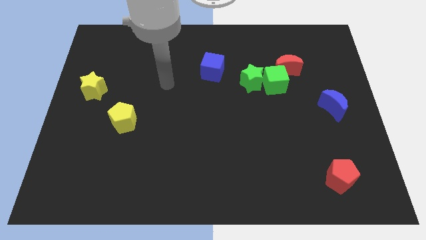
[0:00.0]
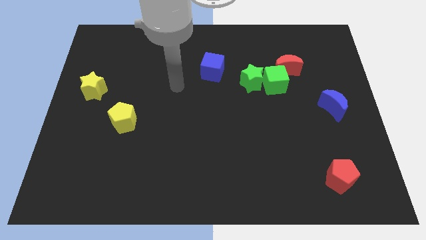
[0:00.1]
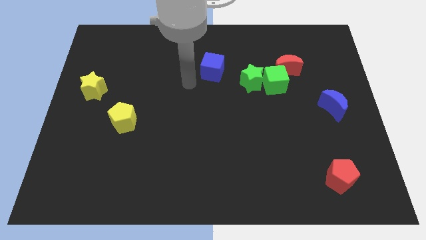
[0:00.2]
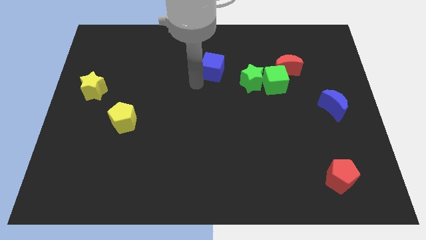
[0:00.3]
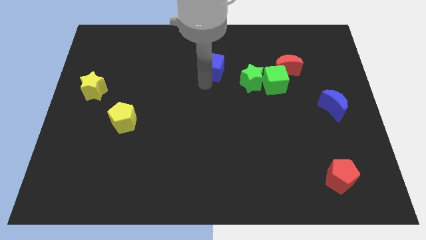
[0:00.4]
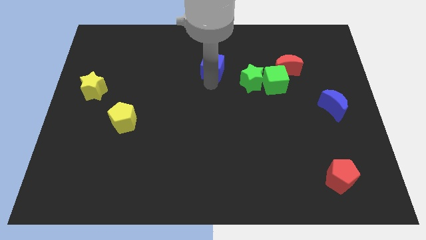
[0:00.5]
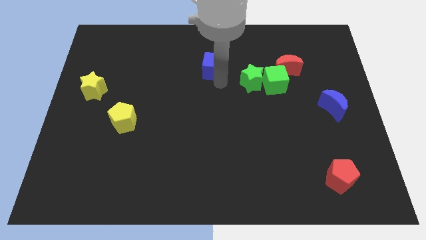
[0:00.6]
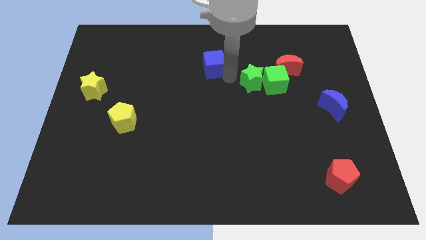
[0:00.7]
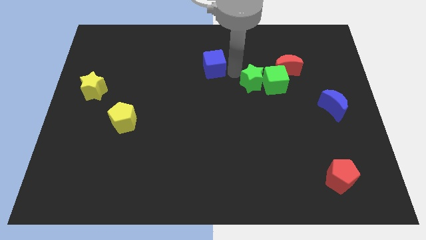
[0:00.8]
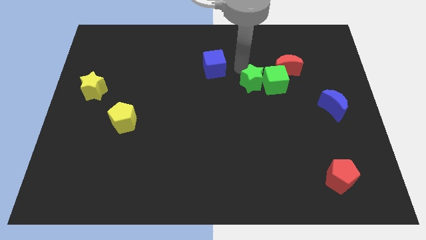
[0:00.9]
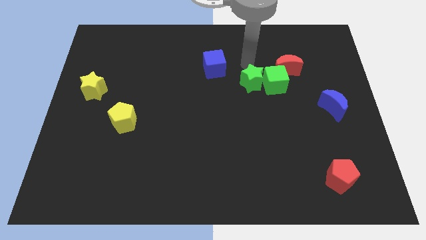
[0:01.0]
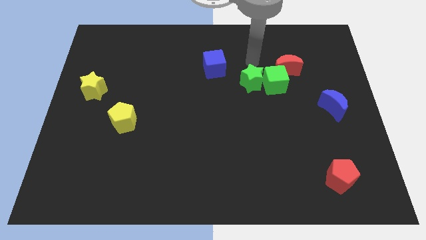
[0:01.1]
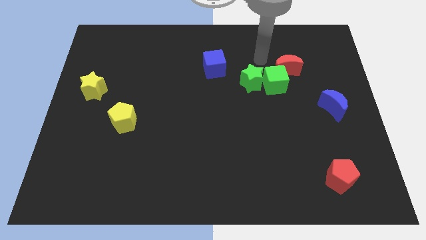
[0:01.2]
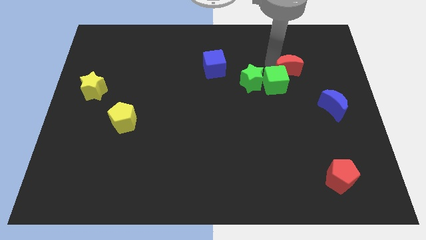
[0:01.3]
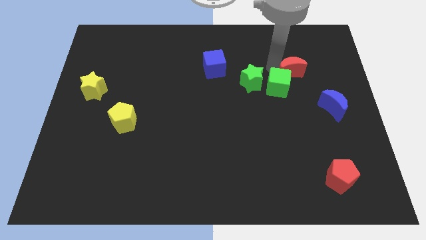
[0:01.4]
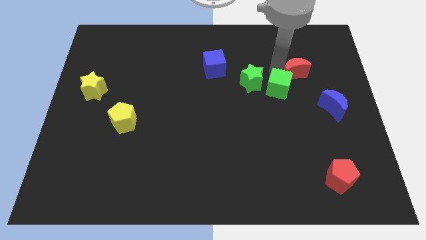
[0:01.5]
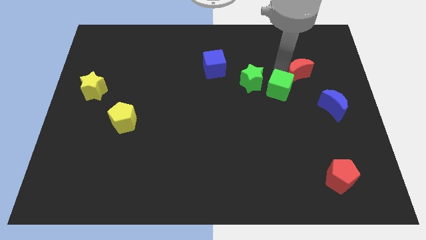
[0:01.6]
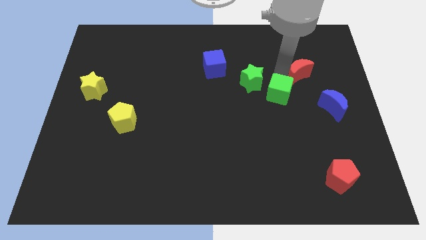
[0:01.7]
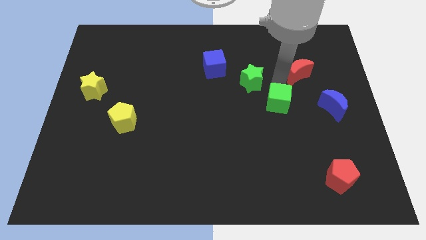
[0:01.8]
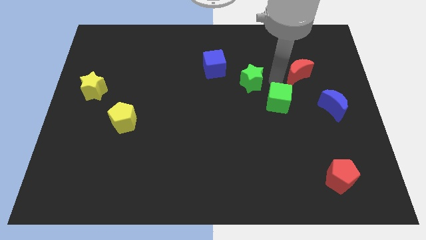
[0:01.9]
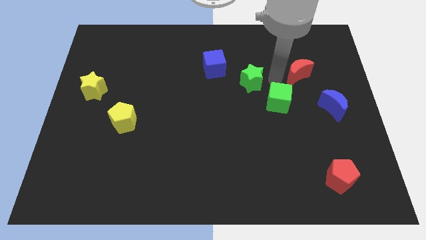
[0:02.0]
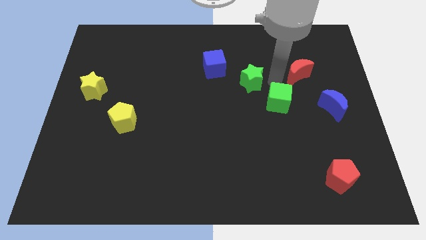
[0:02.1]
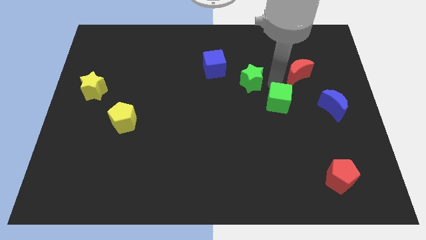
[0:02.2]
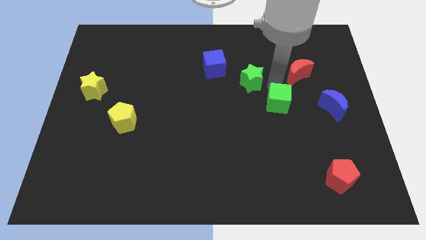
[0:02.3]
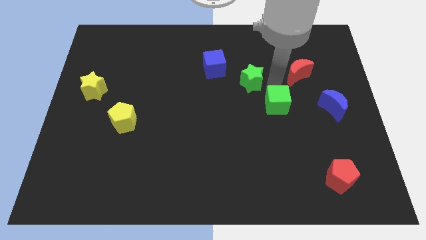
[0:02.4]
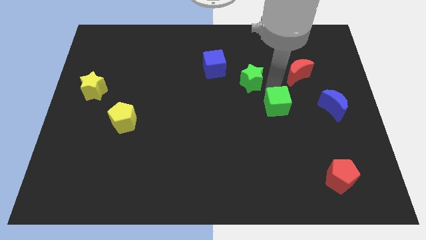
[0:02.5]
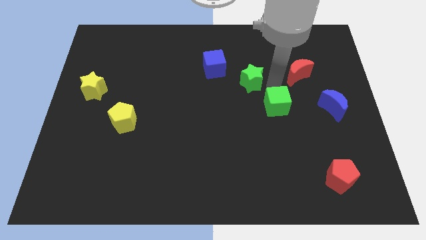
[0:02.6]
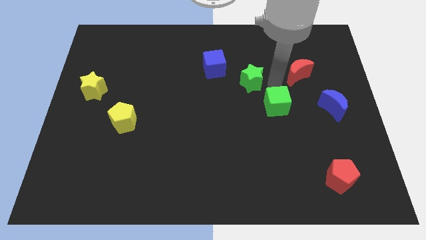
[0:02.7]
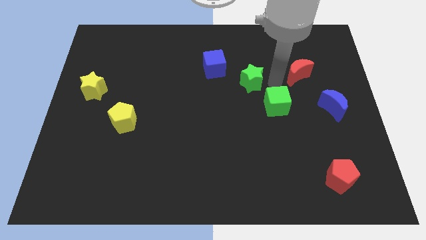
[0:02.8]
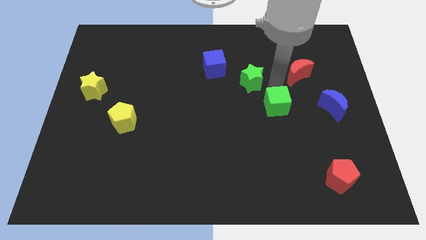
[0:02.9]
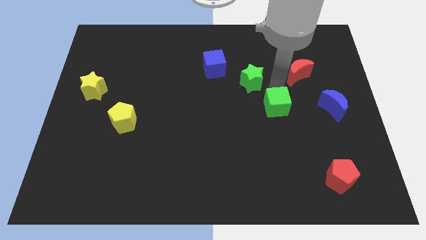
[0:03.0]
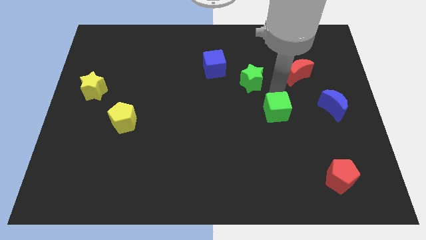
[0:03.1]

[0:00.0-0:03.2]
pull the green cube apart from the green star and red moon

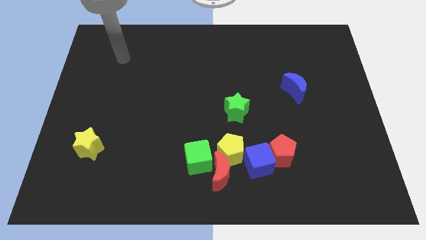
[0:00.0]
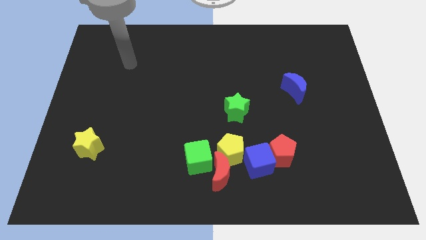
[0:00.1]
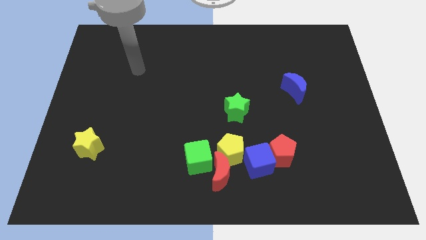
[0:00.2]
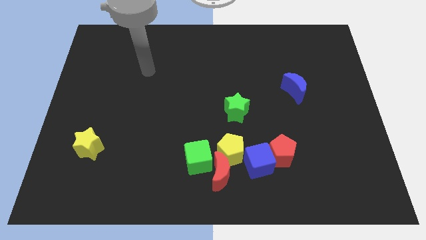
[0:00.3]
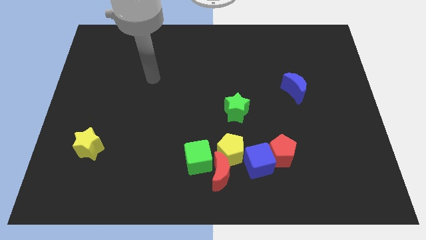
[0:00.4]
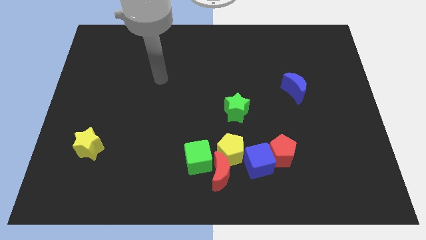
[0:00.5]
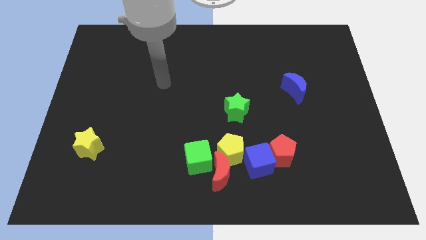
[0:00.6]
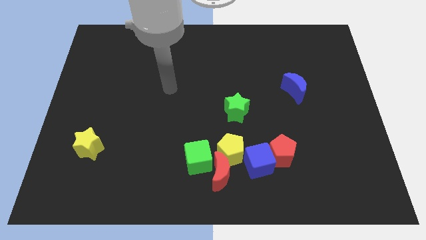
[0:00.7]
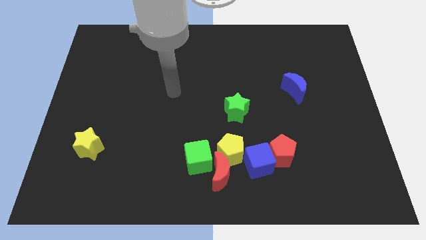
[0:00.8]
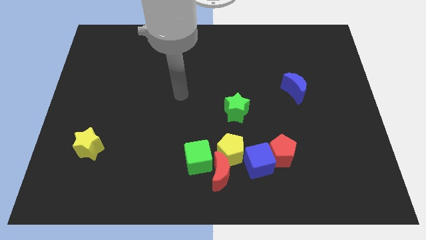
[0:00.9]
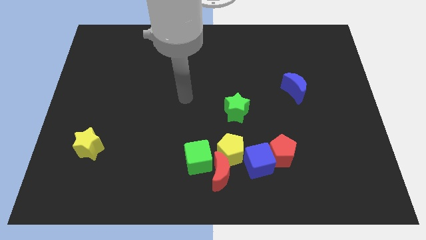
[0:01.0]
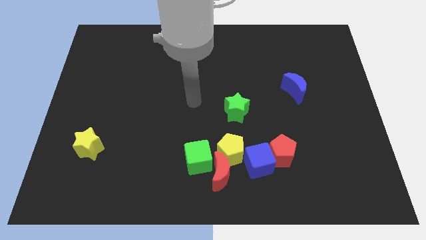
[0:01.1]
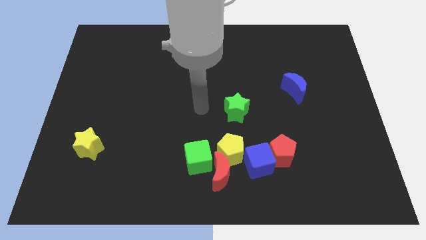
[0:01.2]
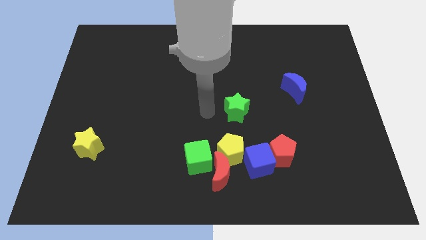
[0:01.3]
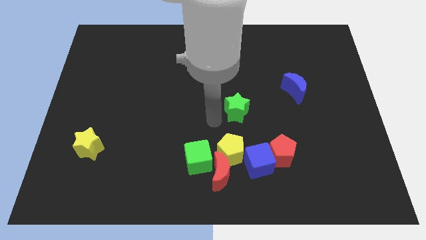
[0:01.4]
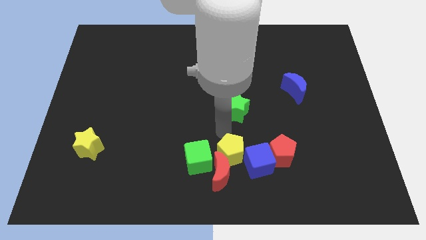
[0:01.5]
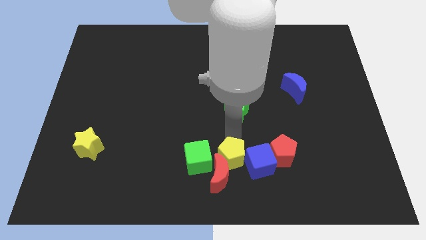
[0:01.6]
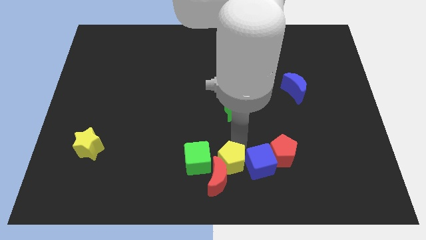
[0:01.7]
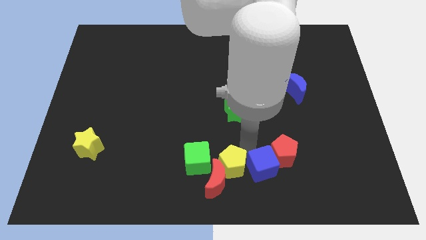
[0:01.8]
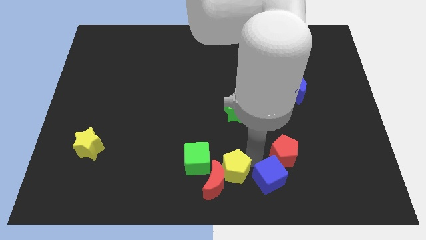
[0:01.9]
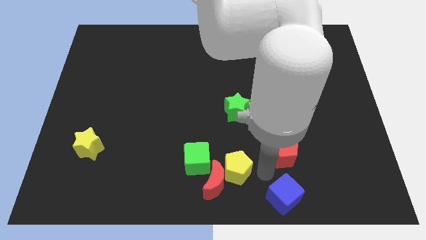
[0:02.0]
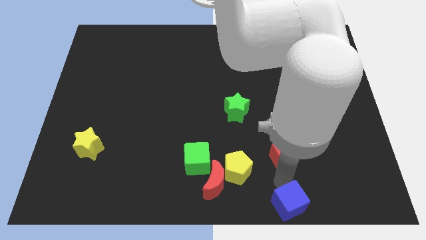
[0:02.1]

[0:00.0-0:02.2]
pull the red pentagon apart from the blue cube

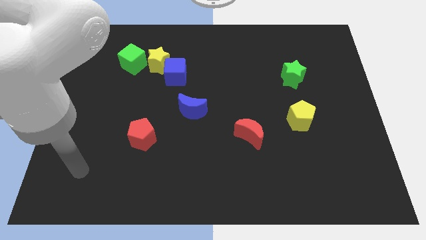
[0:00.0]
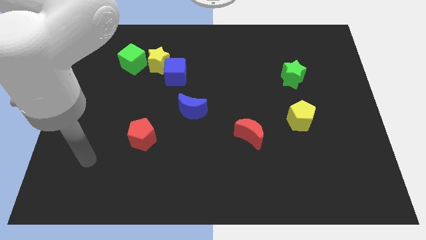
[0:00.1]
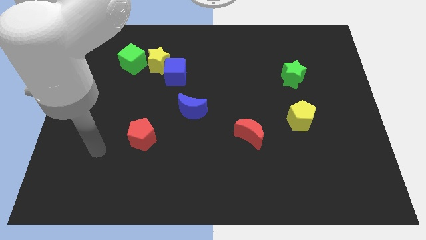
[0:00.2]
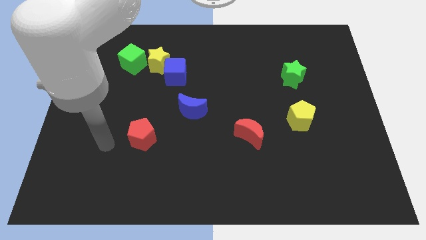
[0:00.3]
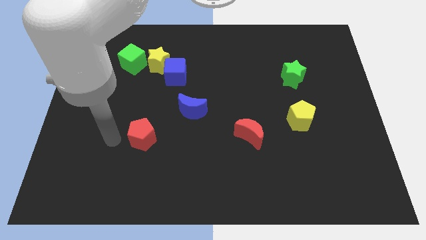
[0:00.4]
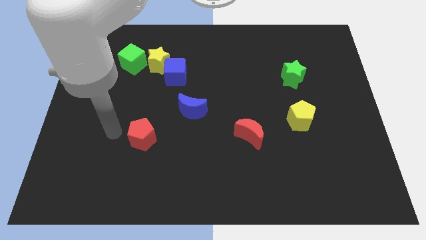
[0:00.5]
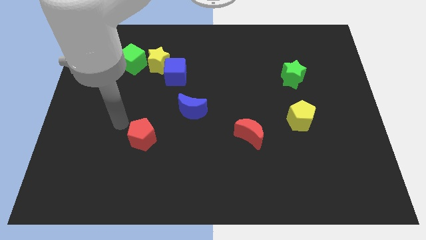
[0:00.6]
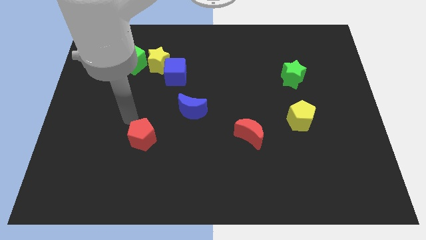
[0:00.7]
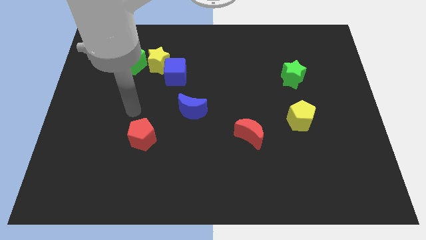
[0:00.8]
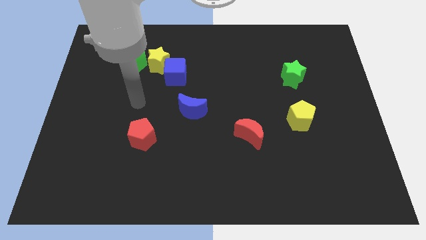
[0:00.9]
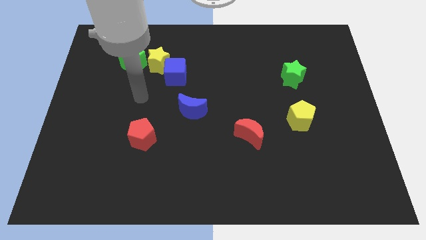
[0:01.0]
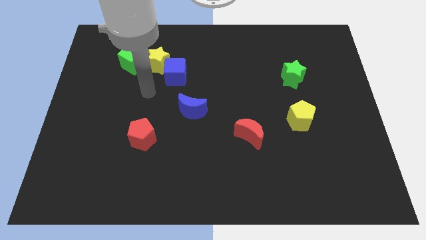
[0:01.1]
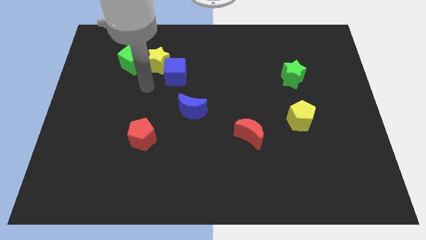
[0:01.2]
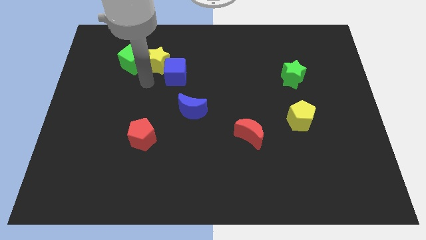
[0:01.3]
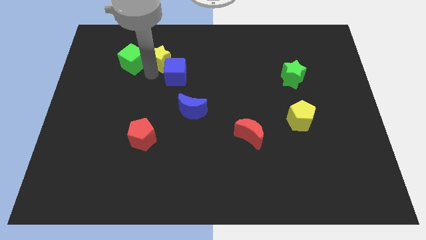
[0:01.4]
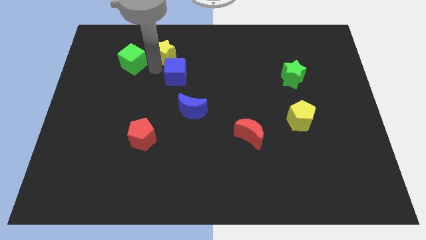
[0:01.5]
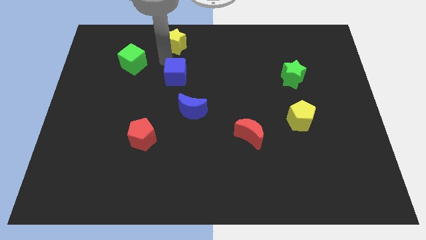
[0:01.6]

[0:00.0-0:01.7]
pull the blue cube apart from the yellow star

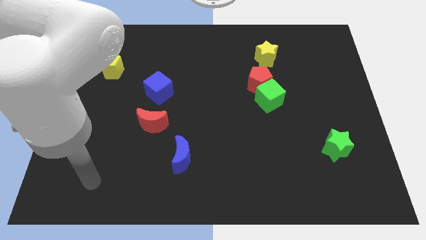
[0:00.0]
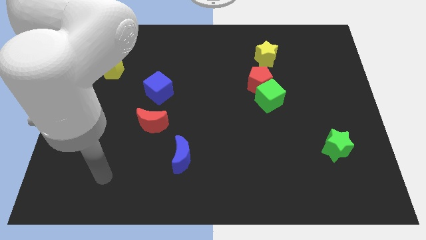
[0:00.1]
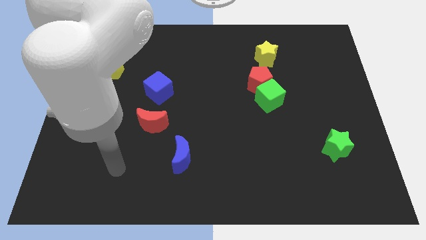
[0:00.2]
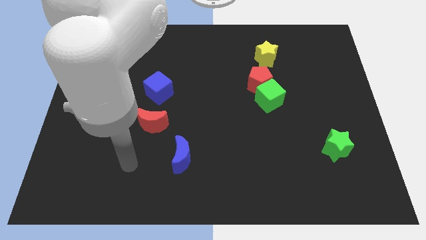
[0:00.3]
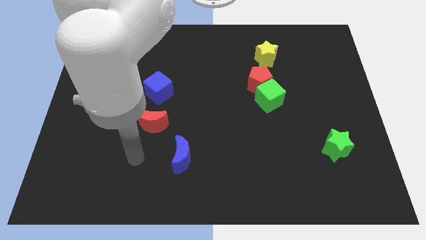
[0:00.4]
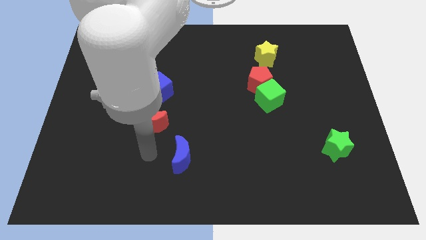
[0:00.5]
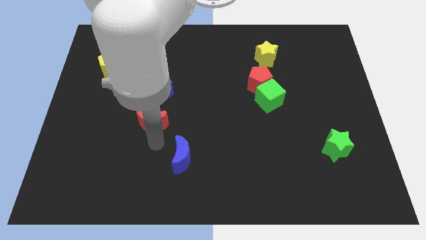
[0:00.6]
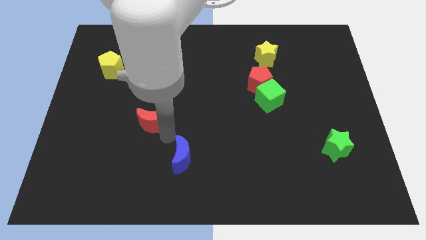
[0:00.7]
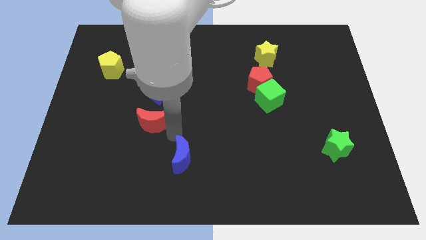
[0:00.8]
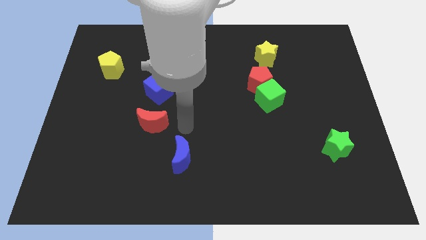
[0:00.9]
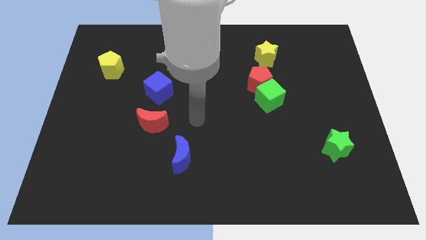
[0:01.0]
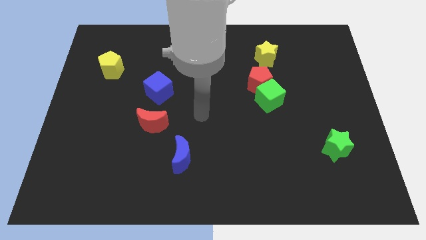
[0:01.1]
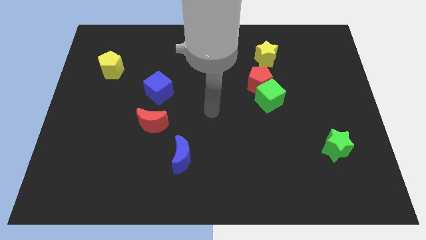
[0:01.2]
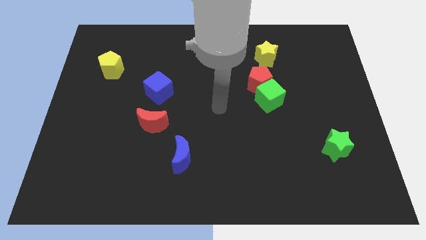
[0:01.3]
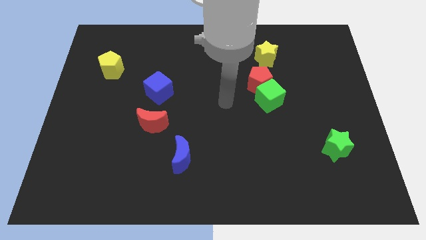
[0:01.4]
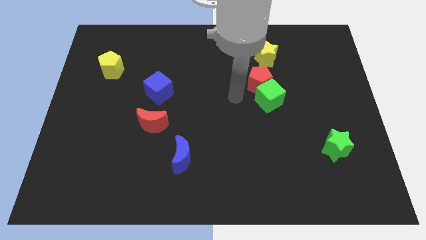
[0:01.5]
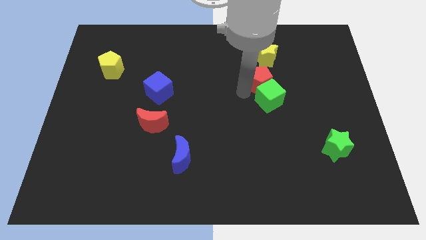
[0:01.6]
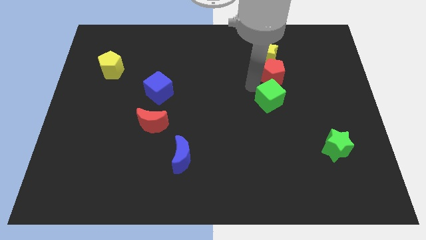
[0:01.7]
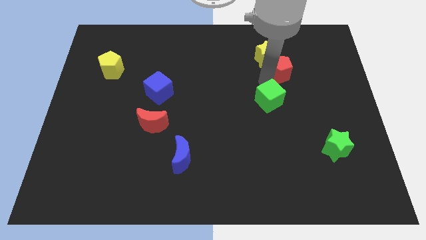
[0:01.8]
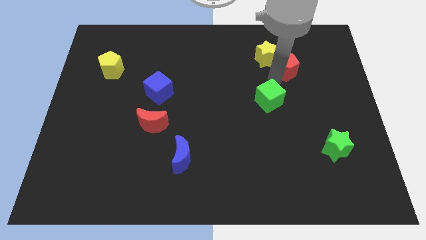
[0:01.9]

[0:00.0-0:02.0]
separate the green cube from the red pentagon

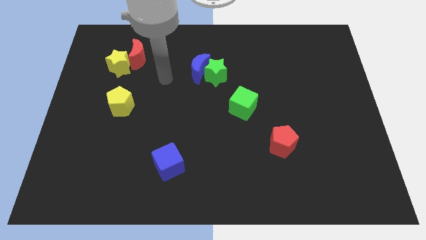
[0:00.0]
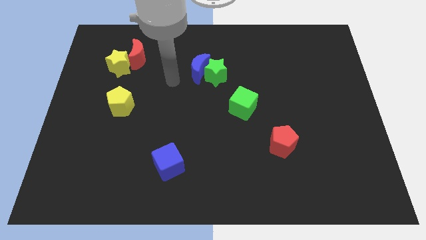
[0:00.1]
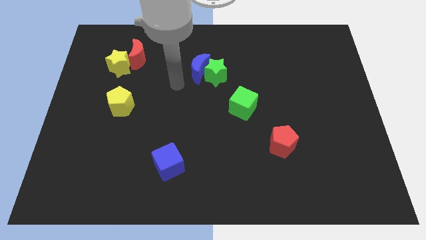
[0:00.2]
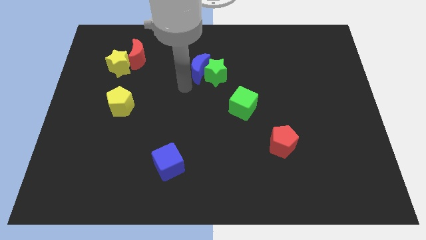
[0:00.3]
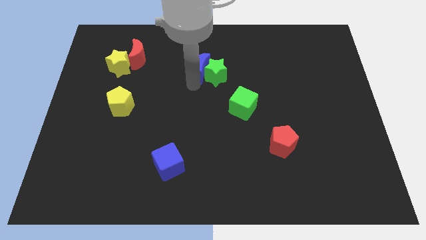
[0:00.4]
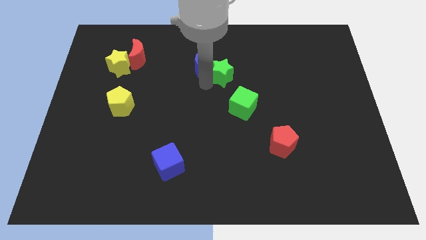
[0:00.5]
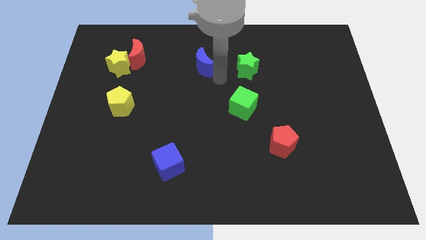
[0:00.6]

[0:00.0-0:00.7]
separate the blue moon from the green star
